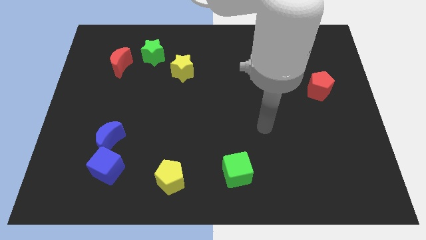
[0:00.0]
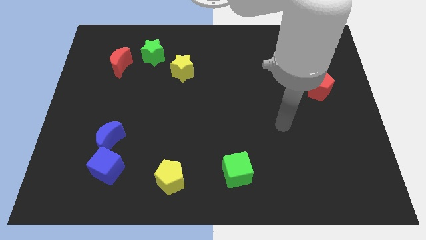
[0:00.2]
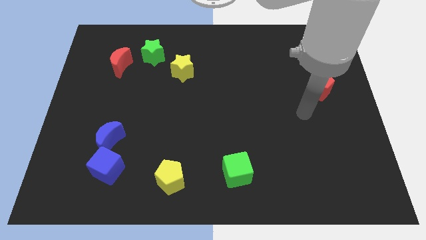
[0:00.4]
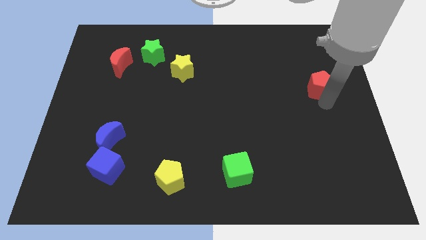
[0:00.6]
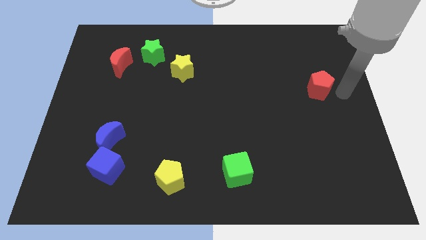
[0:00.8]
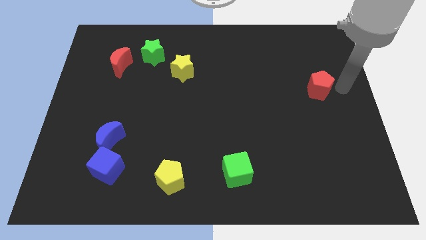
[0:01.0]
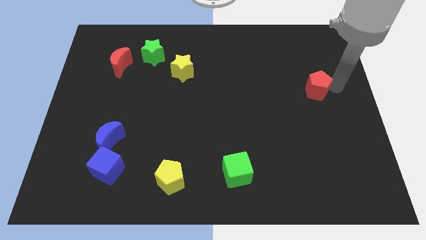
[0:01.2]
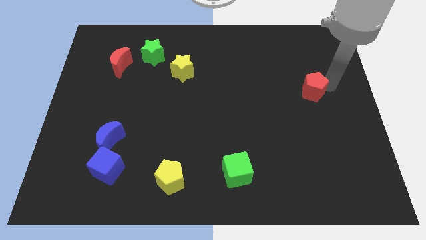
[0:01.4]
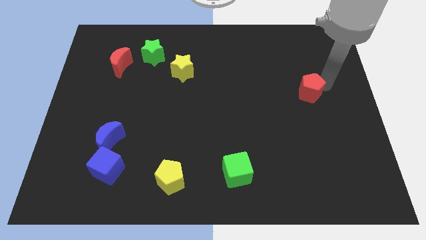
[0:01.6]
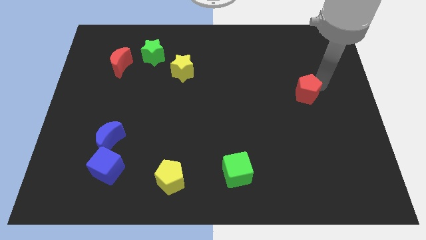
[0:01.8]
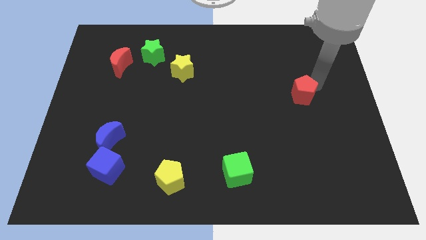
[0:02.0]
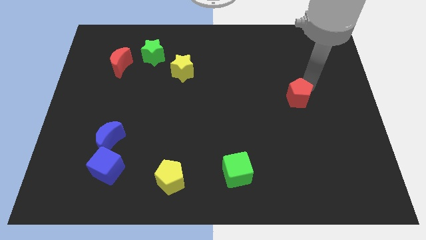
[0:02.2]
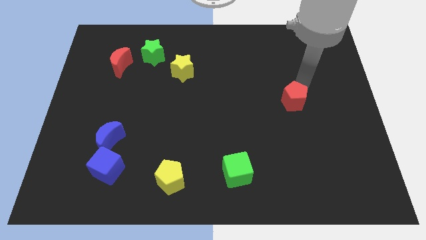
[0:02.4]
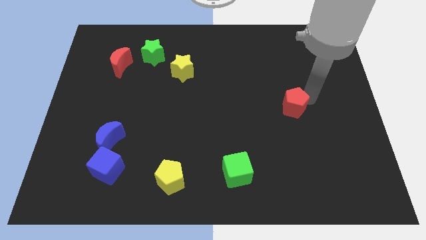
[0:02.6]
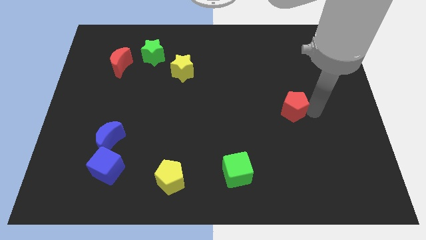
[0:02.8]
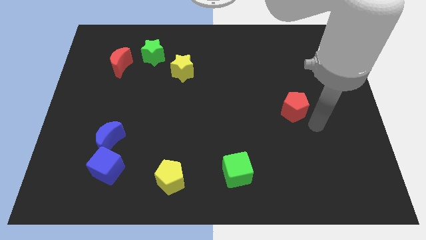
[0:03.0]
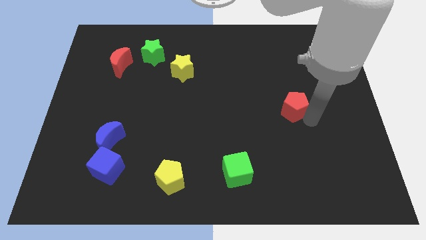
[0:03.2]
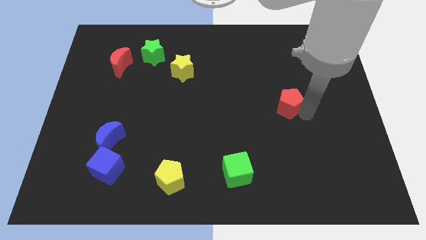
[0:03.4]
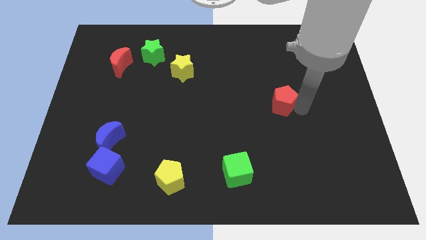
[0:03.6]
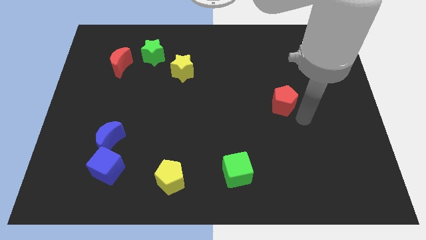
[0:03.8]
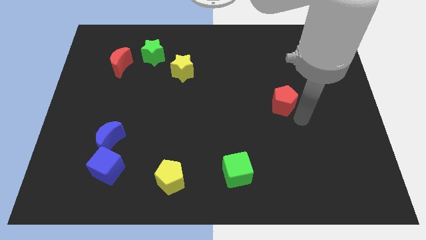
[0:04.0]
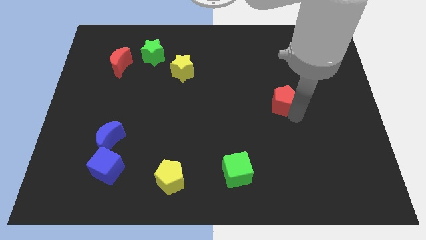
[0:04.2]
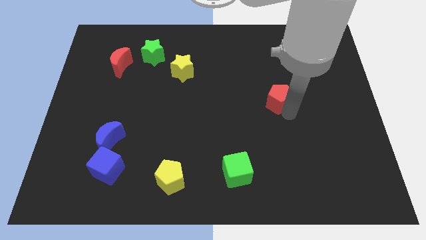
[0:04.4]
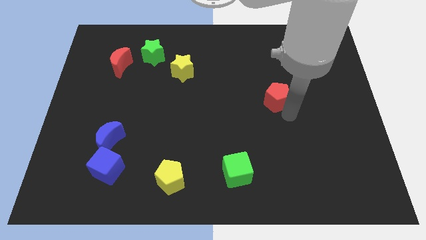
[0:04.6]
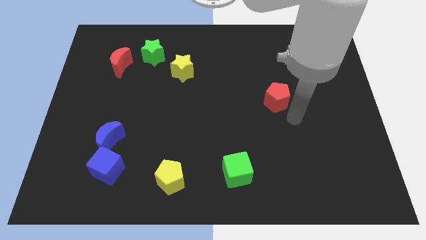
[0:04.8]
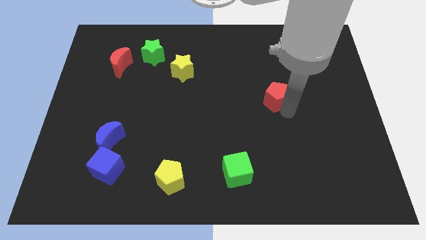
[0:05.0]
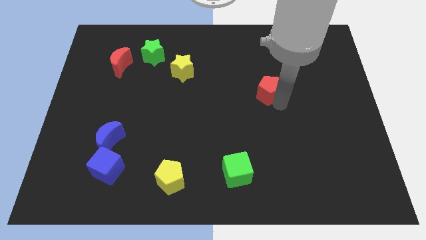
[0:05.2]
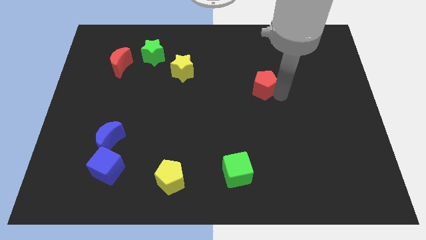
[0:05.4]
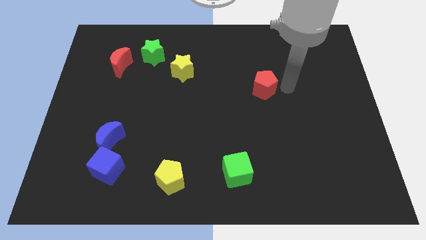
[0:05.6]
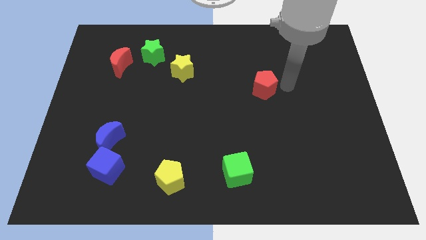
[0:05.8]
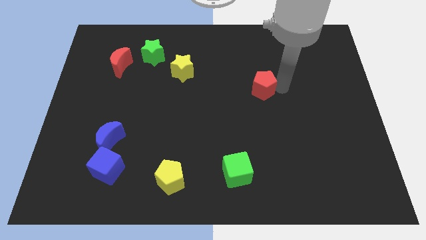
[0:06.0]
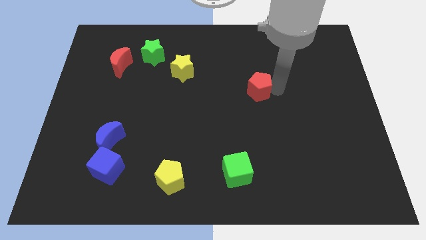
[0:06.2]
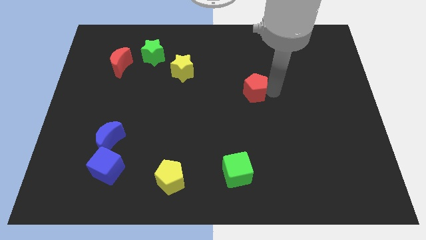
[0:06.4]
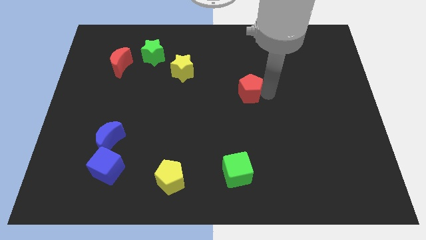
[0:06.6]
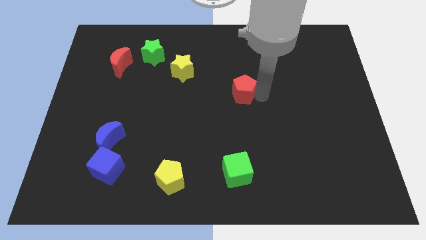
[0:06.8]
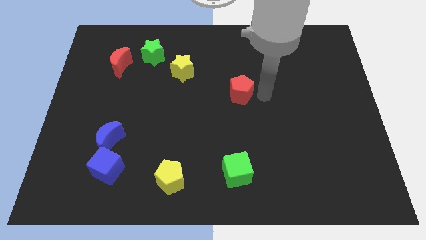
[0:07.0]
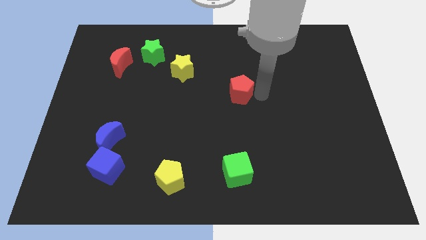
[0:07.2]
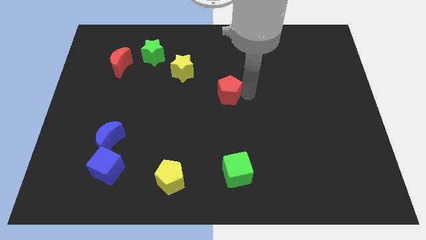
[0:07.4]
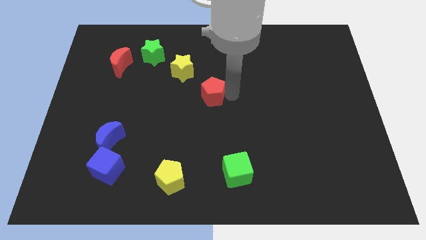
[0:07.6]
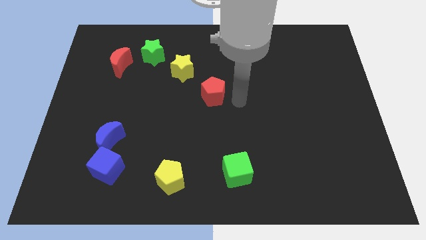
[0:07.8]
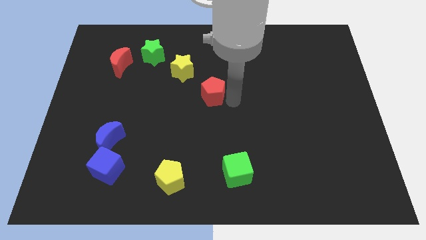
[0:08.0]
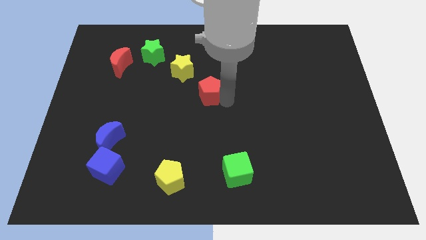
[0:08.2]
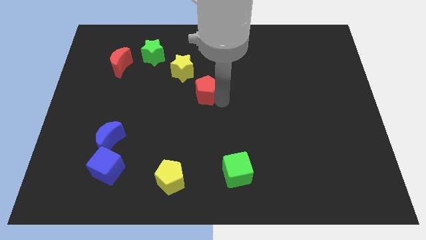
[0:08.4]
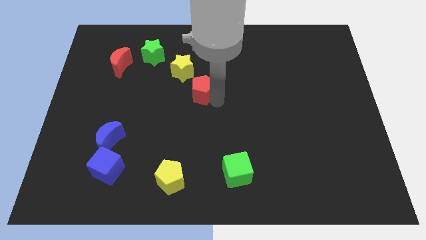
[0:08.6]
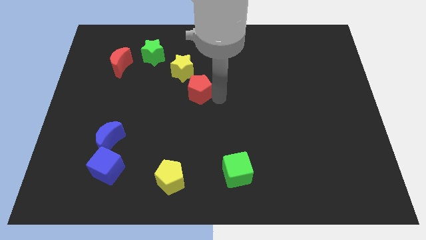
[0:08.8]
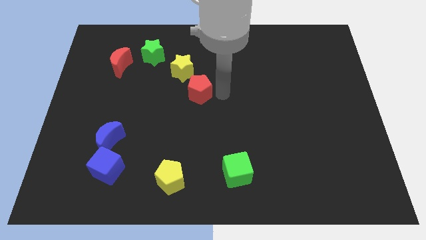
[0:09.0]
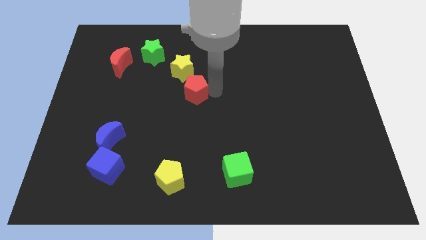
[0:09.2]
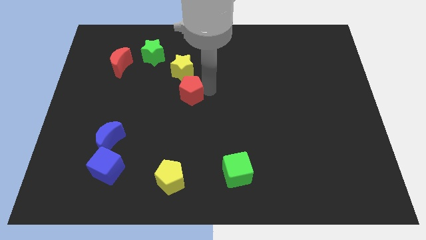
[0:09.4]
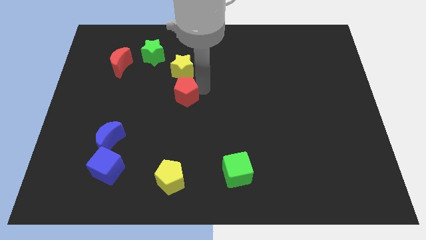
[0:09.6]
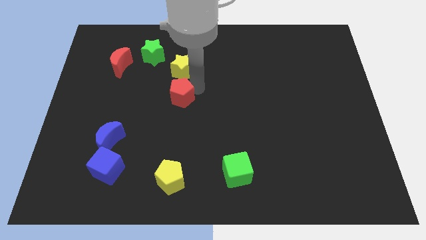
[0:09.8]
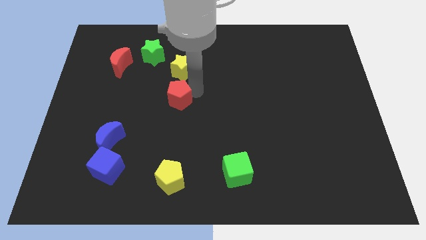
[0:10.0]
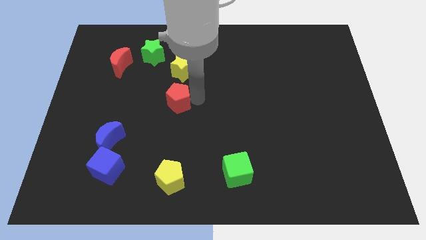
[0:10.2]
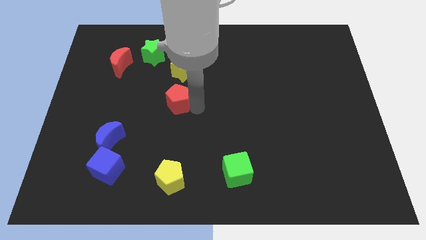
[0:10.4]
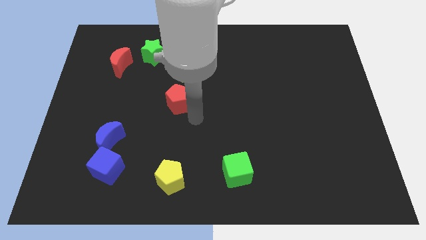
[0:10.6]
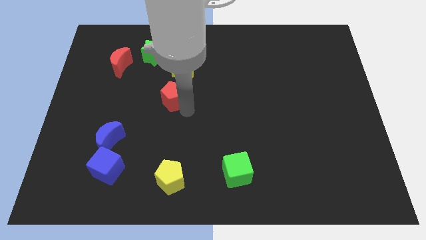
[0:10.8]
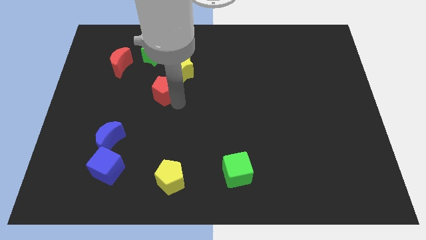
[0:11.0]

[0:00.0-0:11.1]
push the red pentagon to the bottom side of the green star

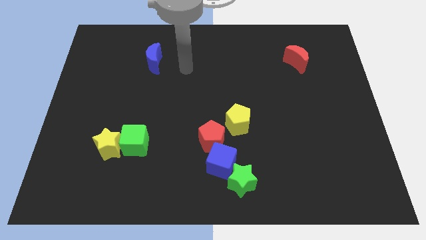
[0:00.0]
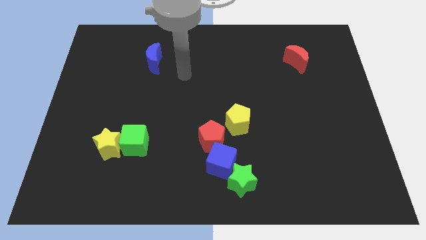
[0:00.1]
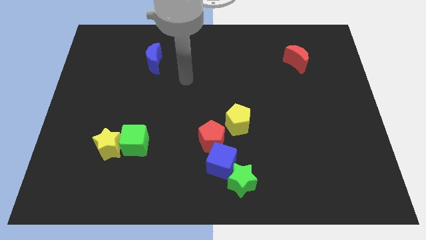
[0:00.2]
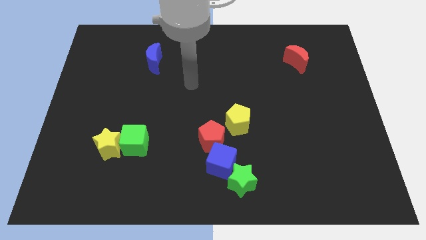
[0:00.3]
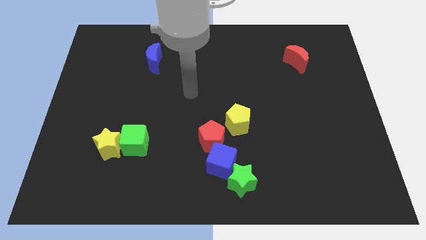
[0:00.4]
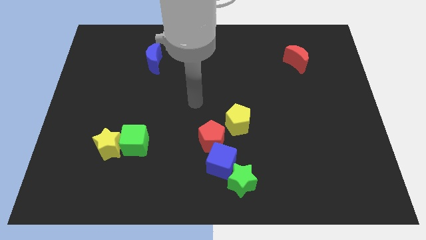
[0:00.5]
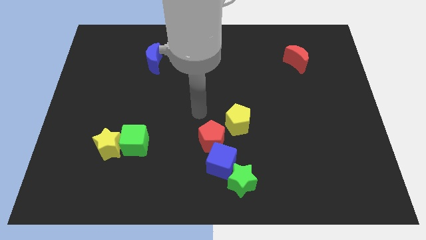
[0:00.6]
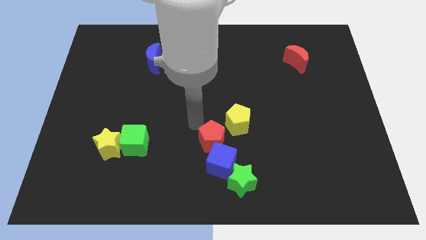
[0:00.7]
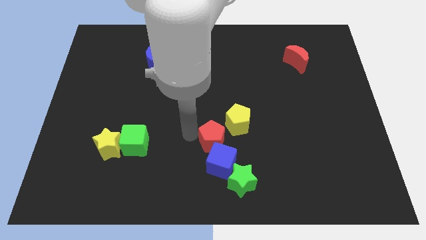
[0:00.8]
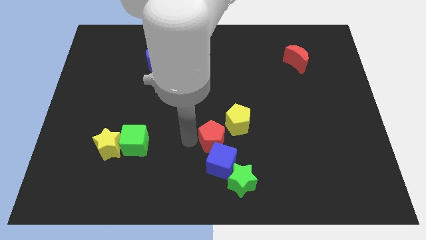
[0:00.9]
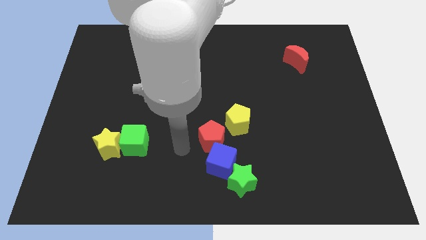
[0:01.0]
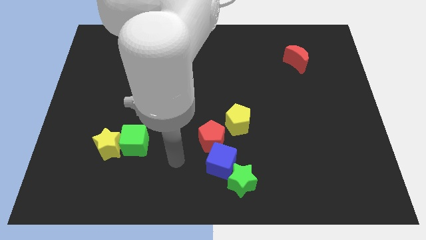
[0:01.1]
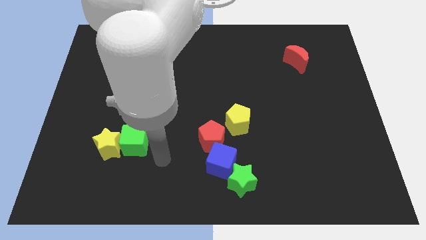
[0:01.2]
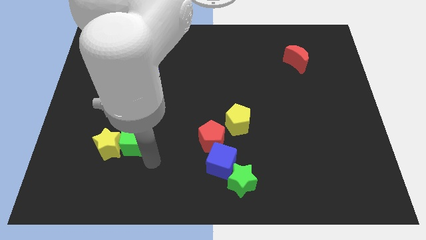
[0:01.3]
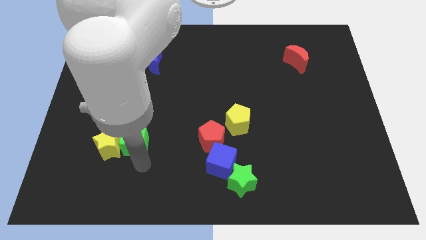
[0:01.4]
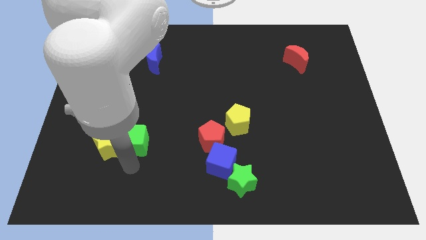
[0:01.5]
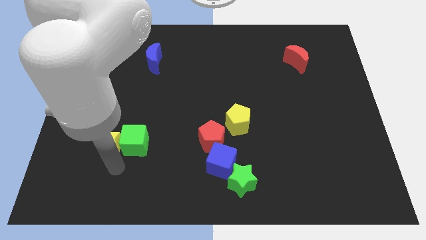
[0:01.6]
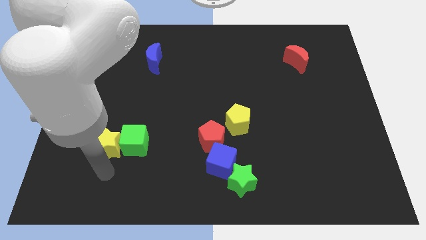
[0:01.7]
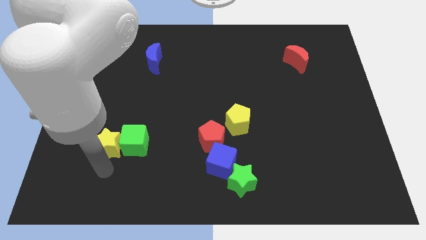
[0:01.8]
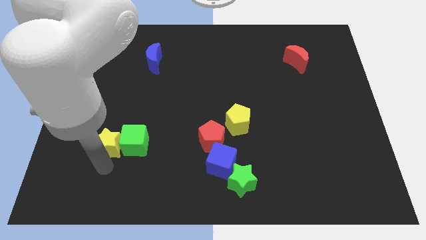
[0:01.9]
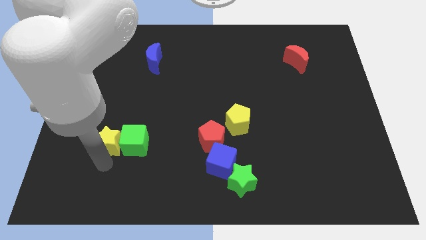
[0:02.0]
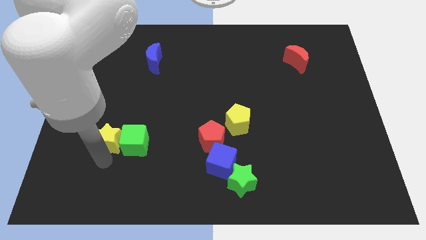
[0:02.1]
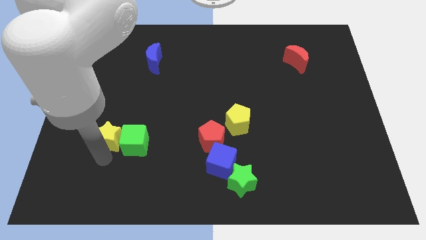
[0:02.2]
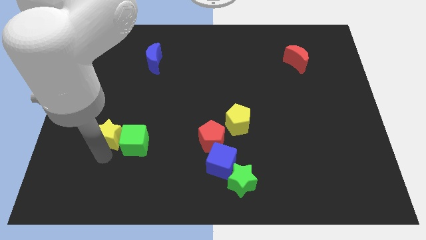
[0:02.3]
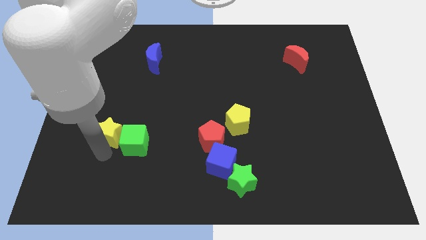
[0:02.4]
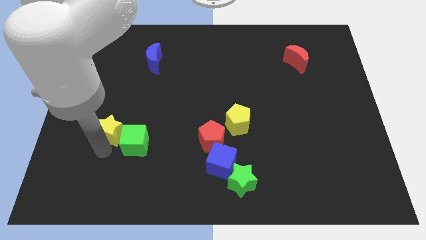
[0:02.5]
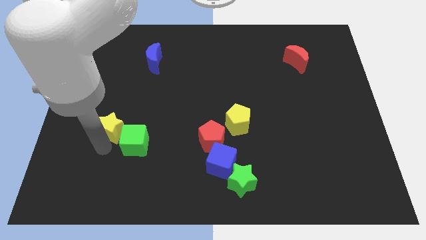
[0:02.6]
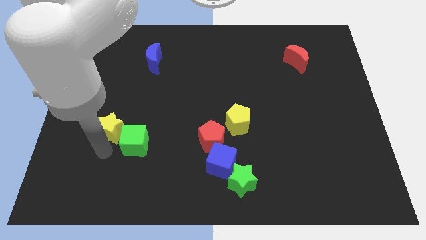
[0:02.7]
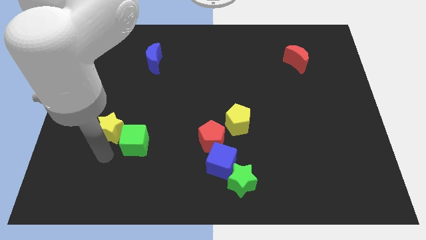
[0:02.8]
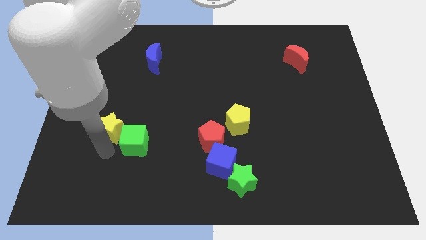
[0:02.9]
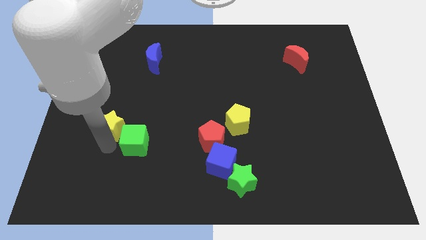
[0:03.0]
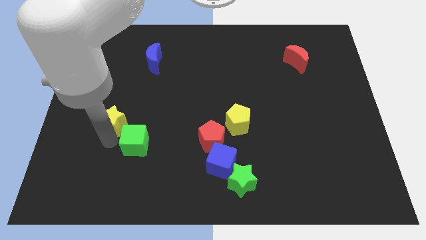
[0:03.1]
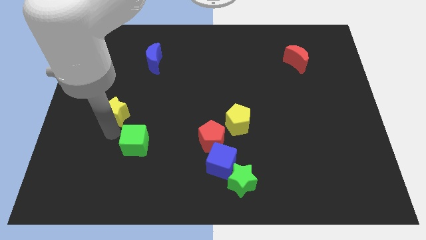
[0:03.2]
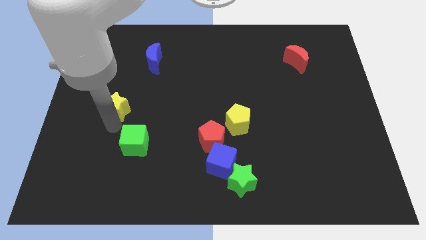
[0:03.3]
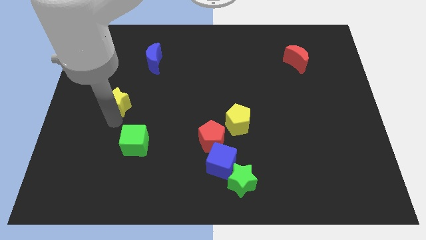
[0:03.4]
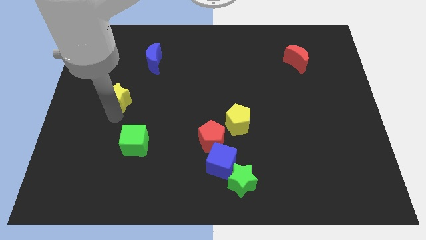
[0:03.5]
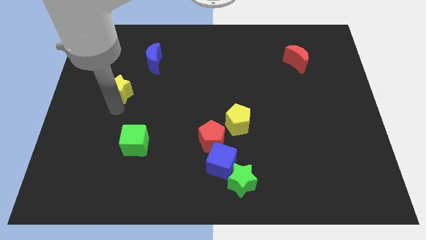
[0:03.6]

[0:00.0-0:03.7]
move the yellow star to the bottom left side of the blue moon
